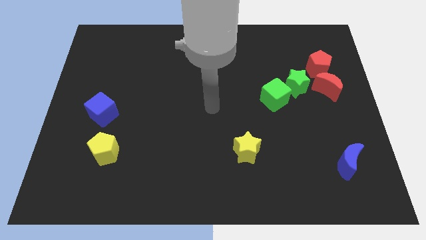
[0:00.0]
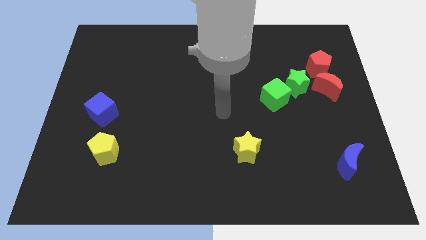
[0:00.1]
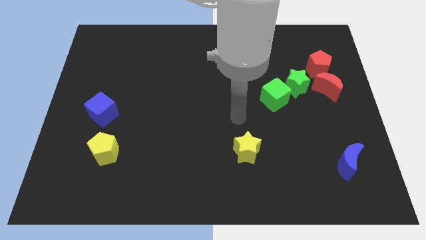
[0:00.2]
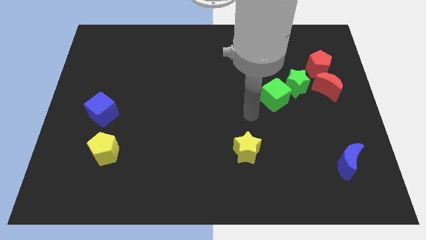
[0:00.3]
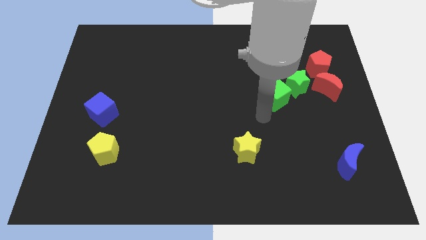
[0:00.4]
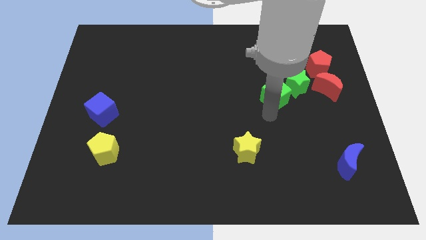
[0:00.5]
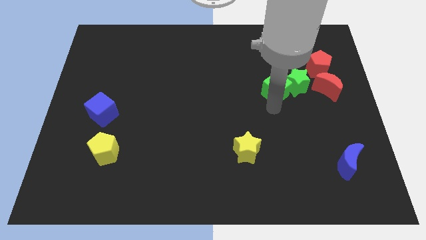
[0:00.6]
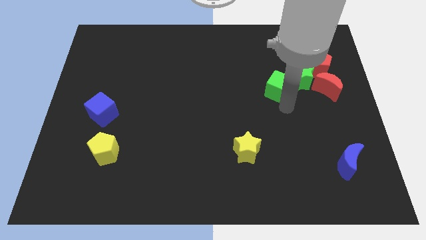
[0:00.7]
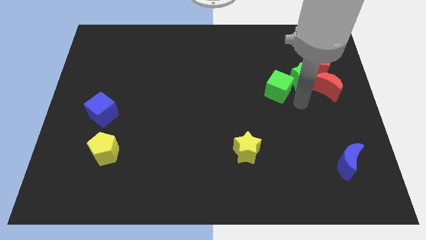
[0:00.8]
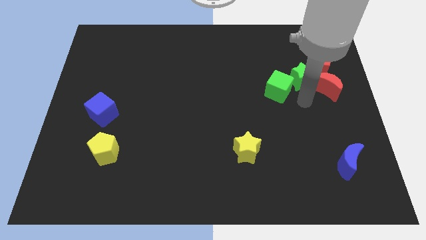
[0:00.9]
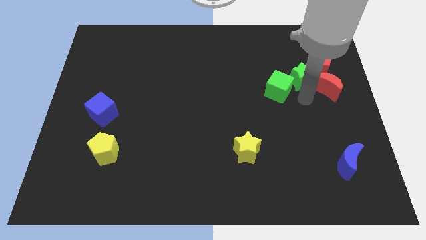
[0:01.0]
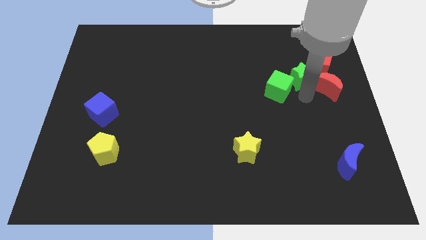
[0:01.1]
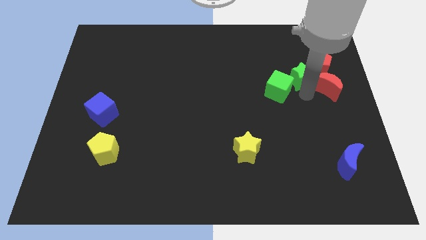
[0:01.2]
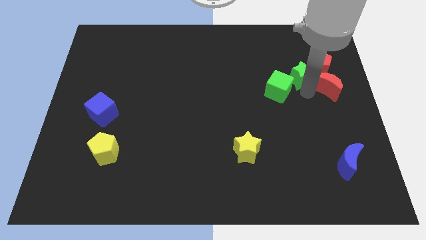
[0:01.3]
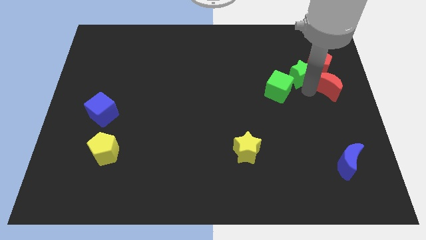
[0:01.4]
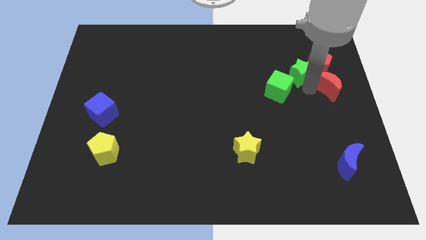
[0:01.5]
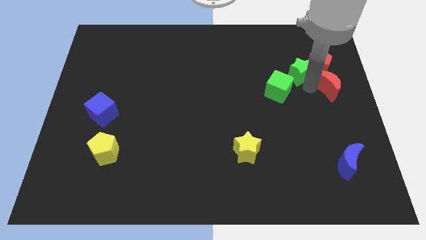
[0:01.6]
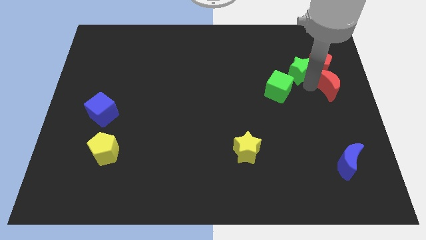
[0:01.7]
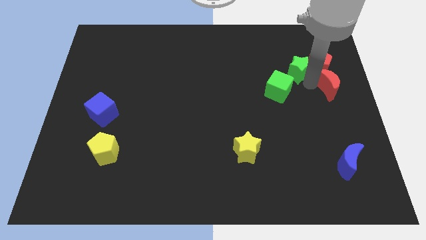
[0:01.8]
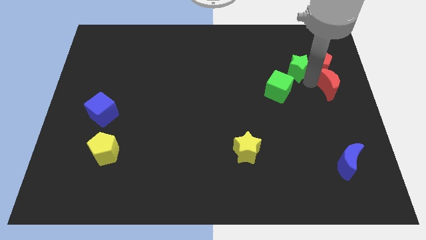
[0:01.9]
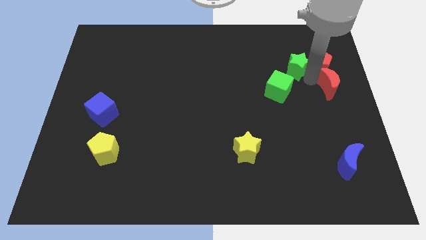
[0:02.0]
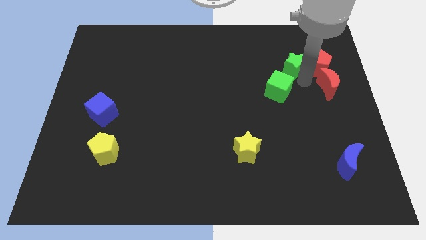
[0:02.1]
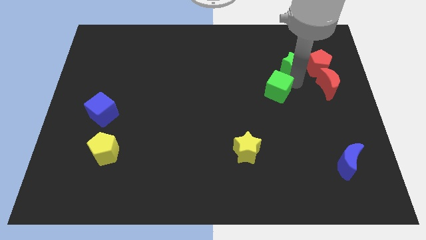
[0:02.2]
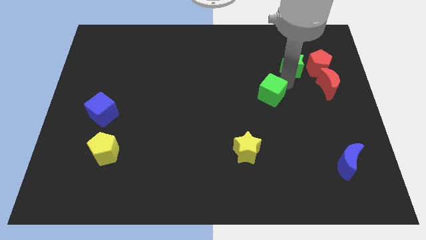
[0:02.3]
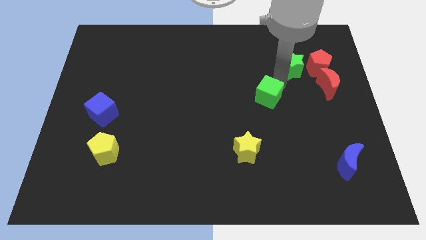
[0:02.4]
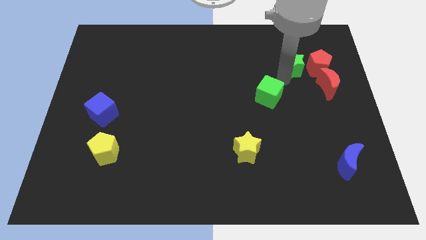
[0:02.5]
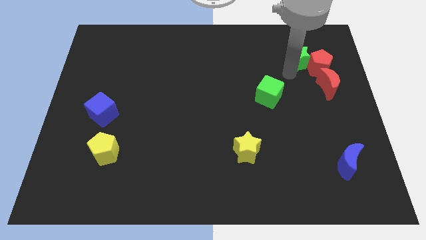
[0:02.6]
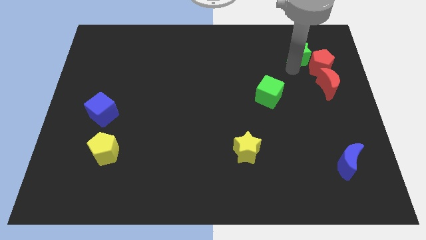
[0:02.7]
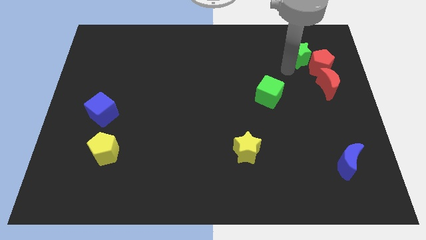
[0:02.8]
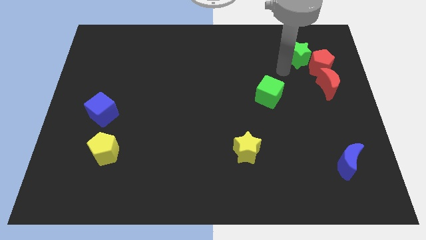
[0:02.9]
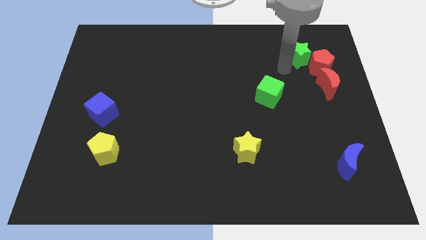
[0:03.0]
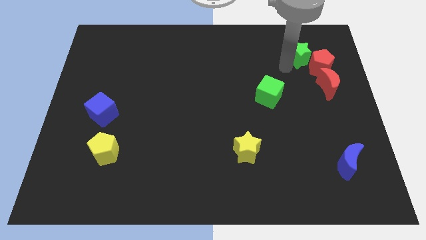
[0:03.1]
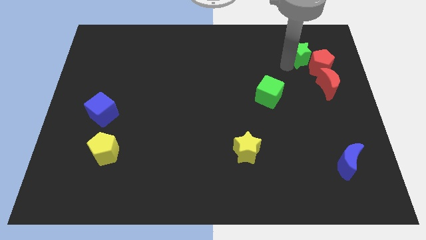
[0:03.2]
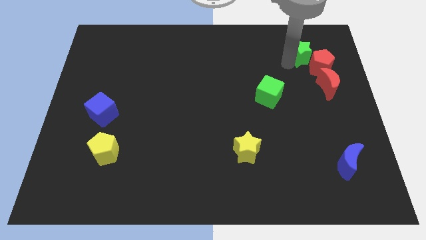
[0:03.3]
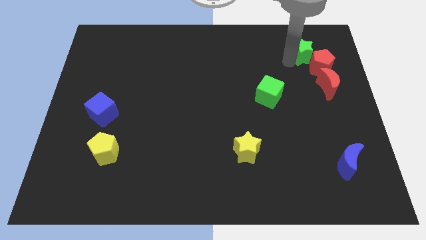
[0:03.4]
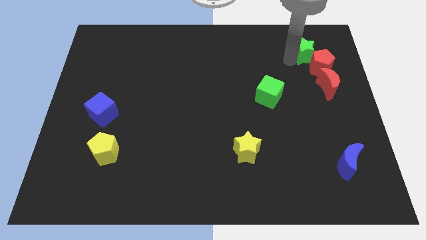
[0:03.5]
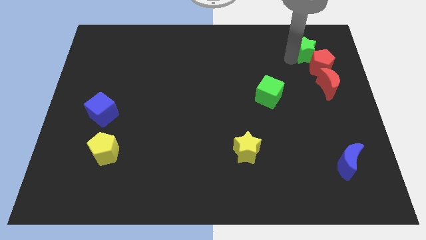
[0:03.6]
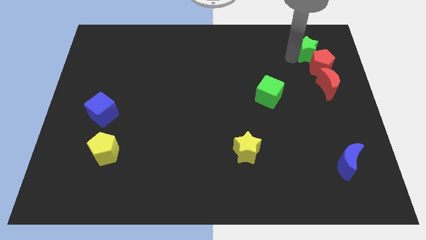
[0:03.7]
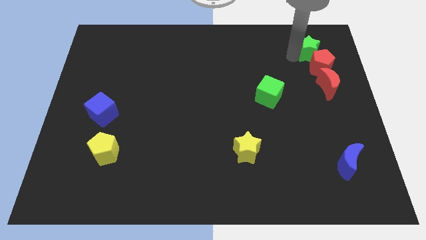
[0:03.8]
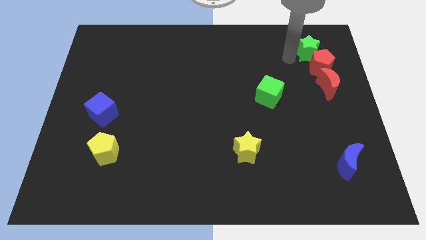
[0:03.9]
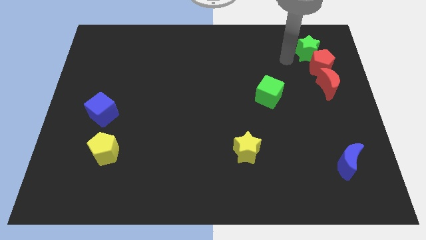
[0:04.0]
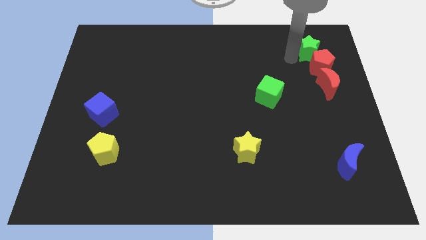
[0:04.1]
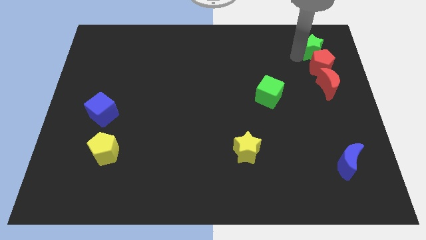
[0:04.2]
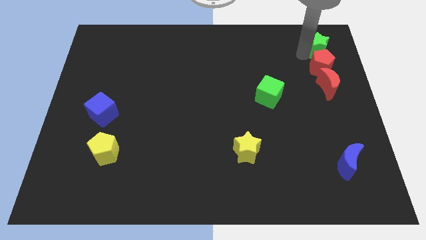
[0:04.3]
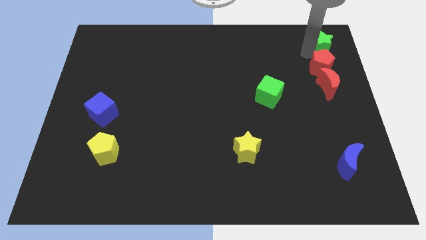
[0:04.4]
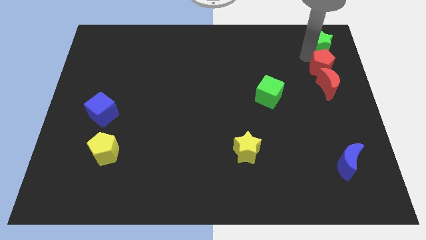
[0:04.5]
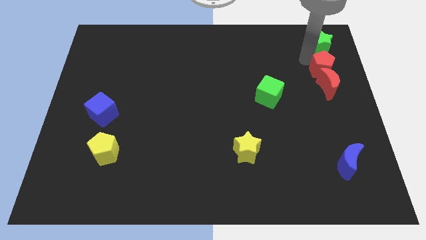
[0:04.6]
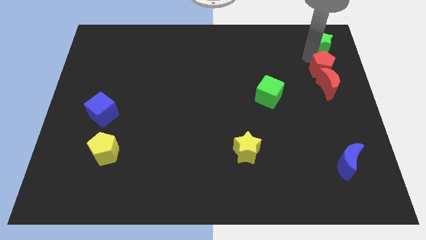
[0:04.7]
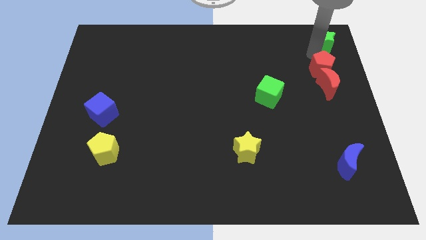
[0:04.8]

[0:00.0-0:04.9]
push the green star to the top right corner

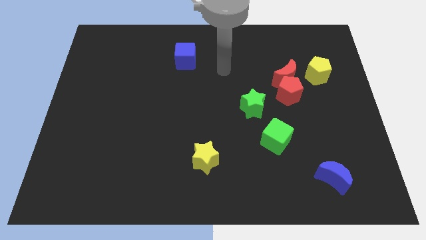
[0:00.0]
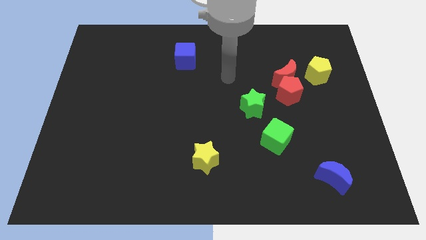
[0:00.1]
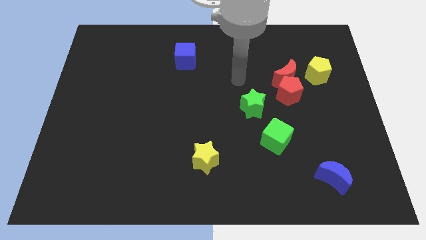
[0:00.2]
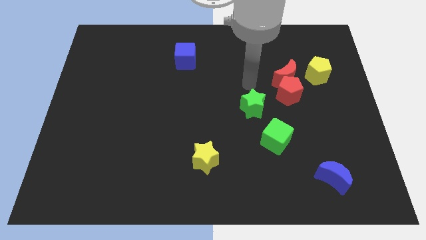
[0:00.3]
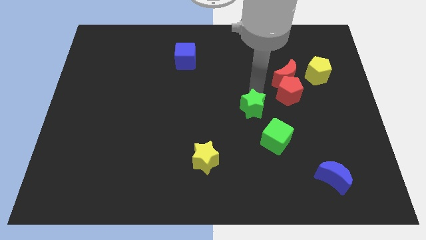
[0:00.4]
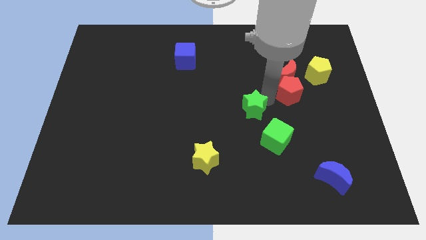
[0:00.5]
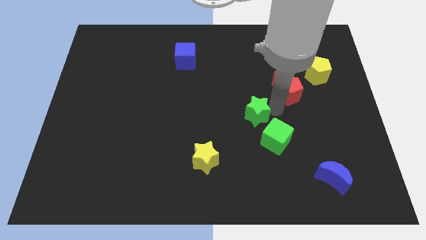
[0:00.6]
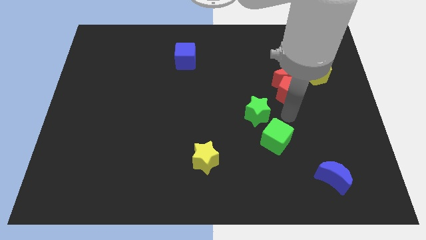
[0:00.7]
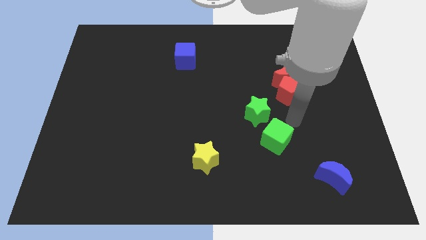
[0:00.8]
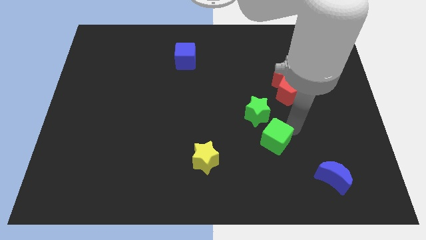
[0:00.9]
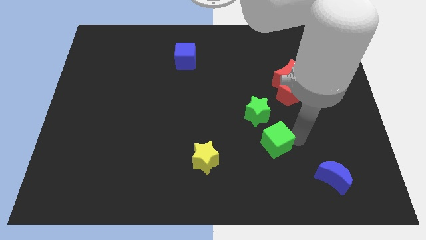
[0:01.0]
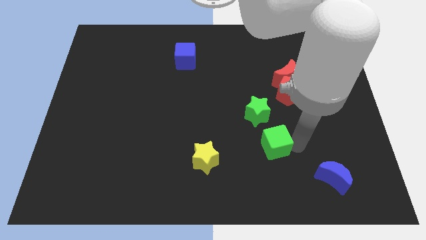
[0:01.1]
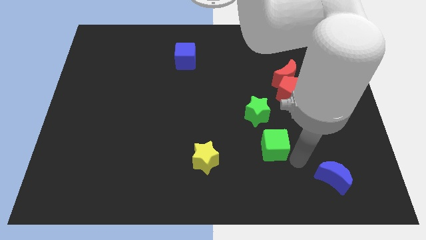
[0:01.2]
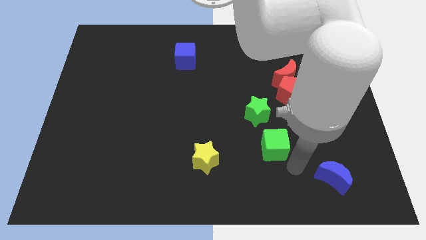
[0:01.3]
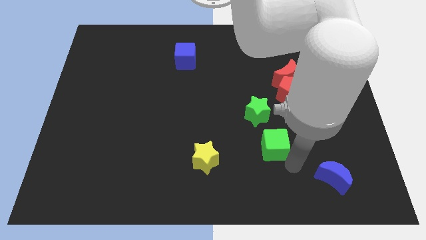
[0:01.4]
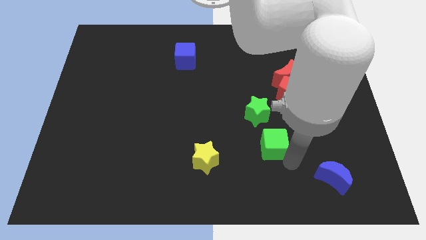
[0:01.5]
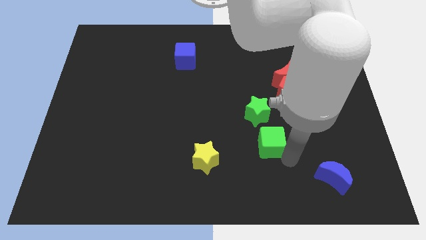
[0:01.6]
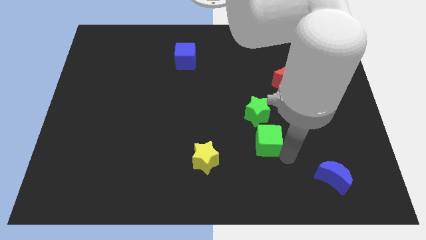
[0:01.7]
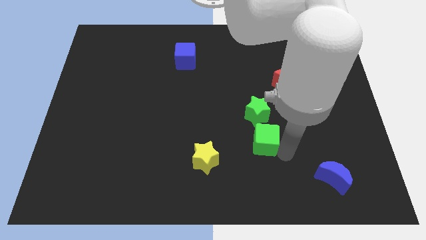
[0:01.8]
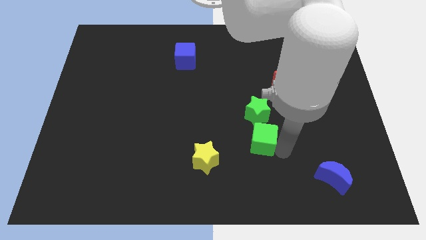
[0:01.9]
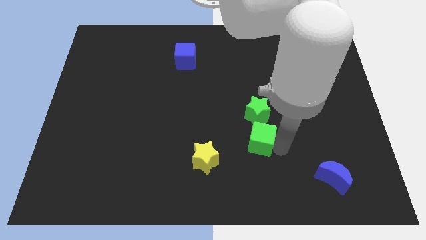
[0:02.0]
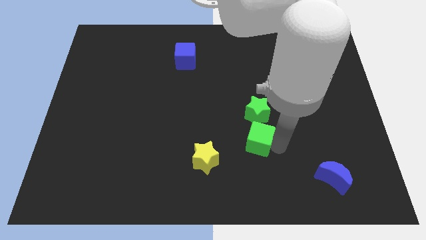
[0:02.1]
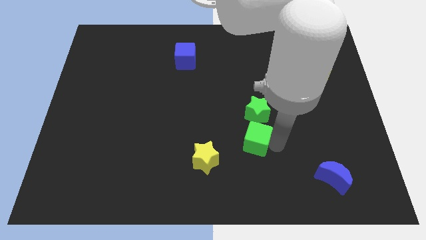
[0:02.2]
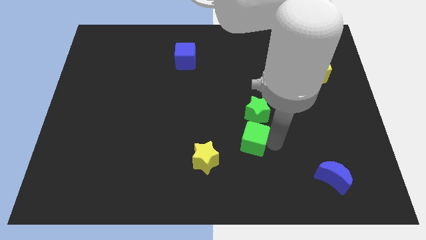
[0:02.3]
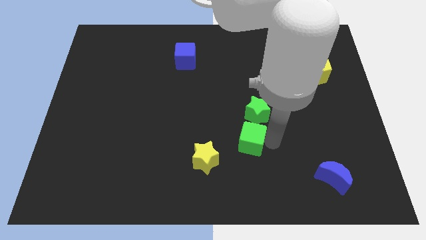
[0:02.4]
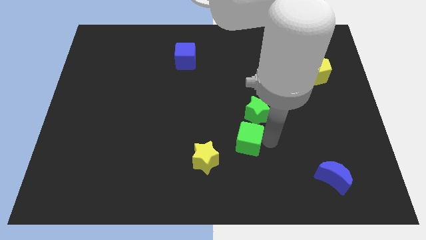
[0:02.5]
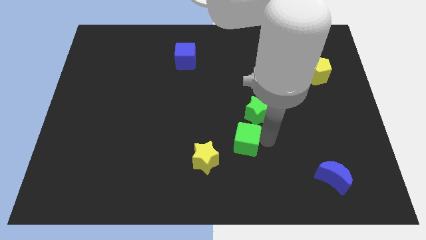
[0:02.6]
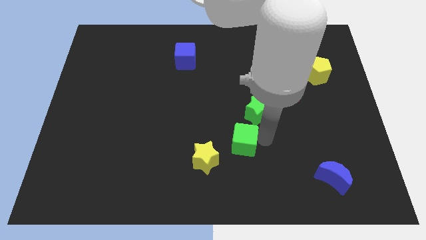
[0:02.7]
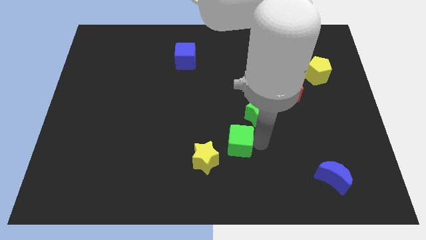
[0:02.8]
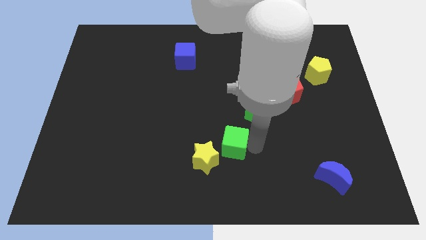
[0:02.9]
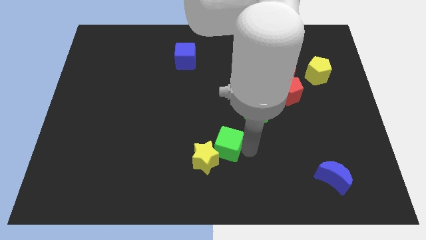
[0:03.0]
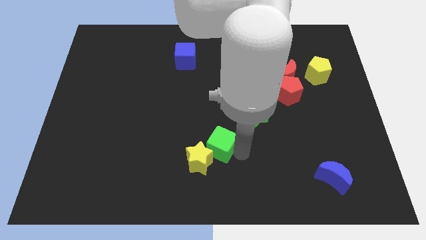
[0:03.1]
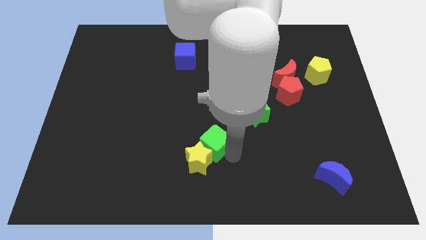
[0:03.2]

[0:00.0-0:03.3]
move the green cube to the middle
